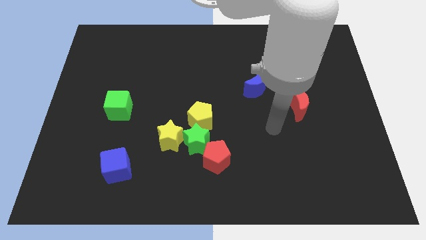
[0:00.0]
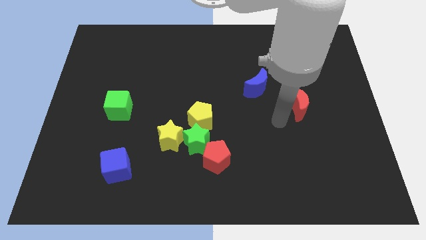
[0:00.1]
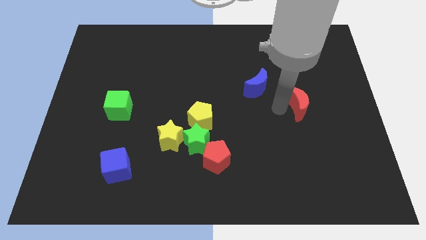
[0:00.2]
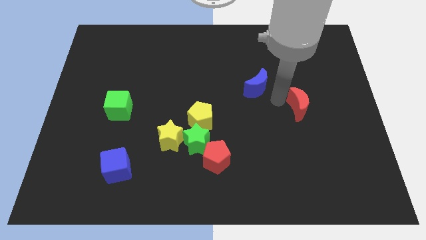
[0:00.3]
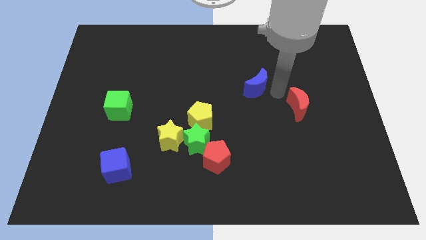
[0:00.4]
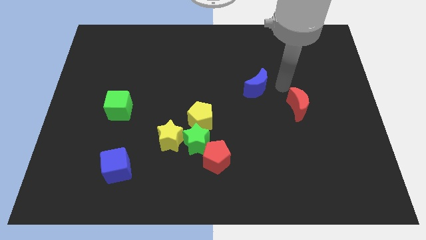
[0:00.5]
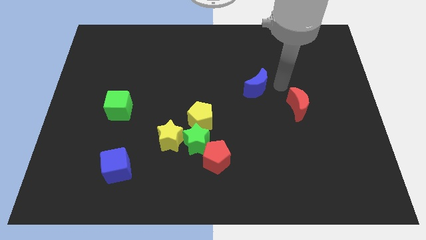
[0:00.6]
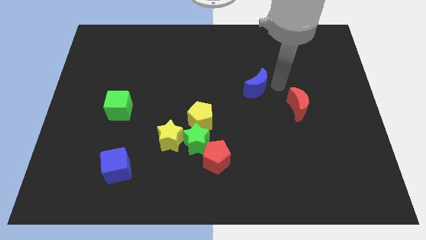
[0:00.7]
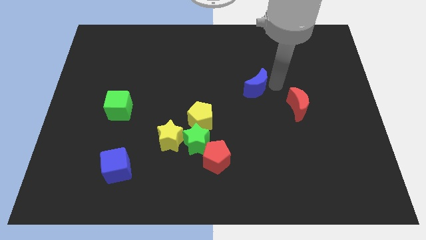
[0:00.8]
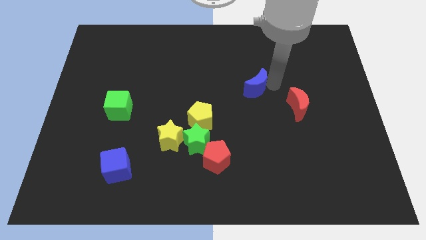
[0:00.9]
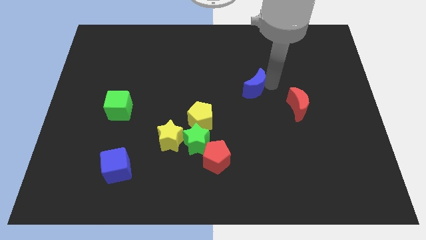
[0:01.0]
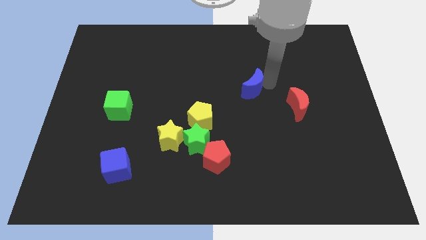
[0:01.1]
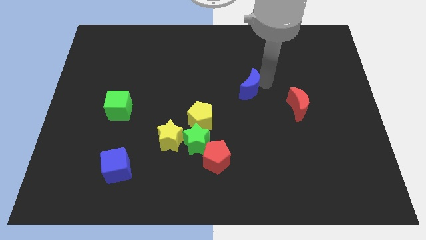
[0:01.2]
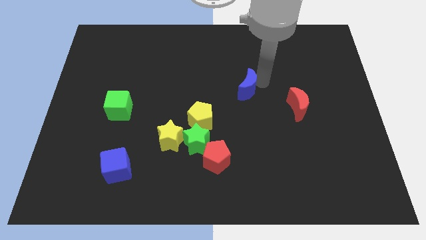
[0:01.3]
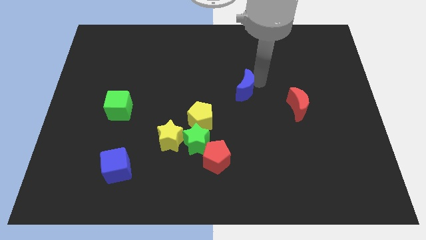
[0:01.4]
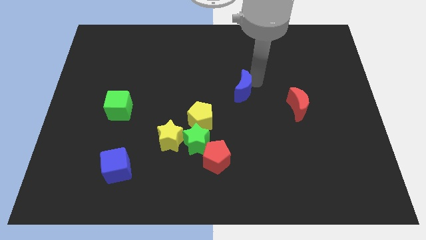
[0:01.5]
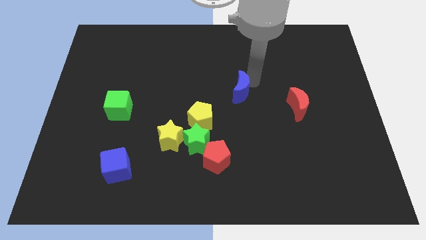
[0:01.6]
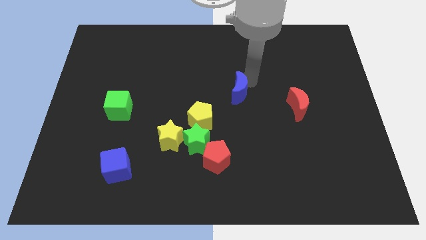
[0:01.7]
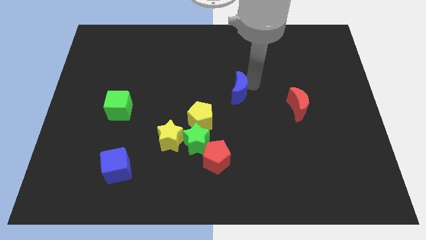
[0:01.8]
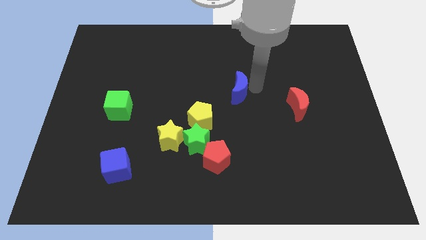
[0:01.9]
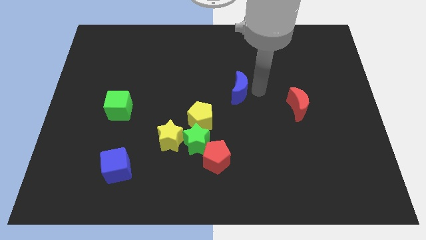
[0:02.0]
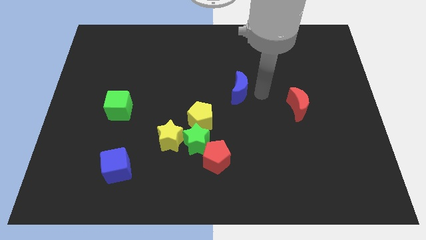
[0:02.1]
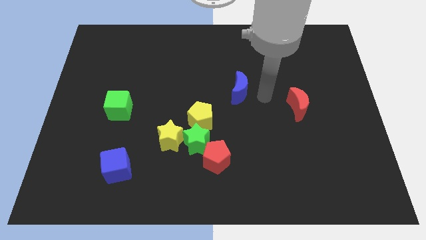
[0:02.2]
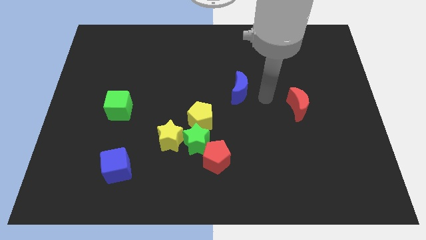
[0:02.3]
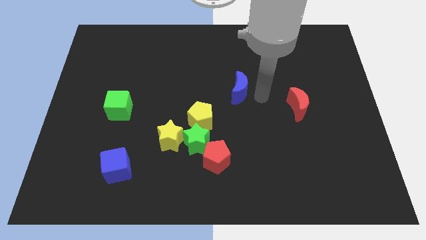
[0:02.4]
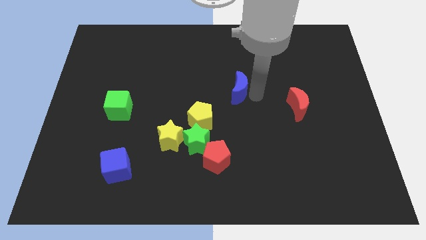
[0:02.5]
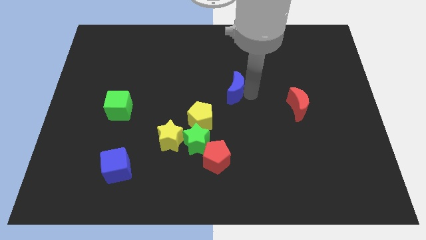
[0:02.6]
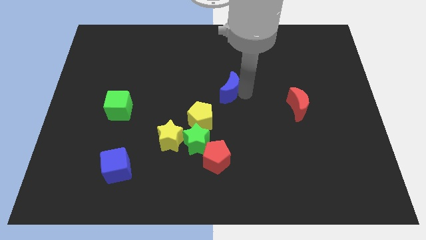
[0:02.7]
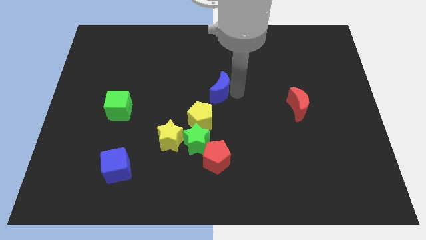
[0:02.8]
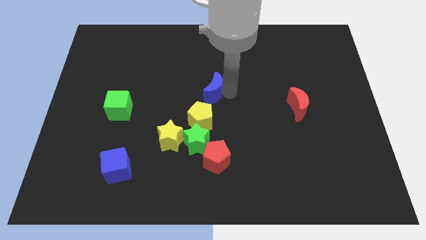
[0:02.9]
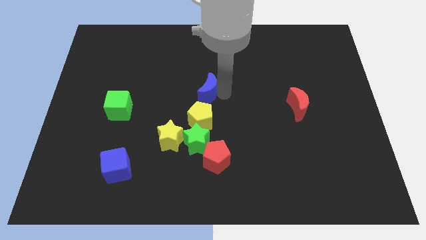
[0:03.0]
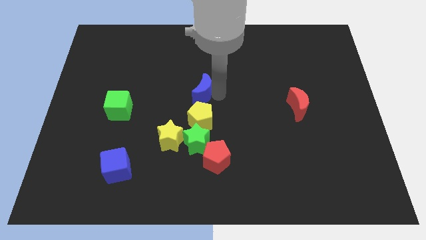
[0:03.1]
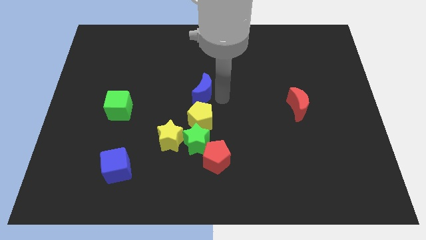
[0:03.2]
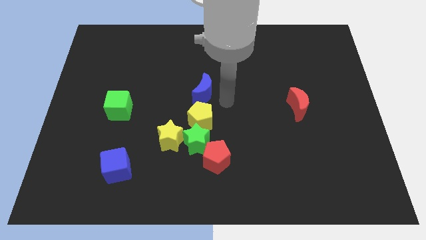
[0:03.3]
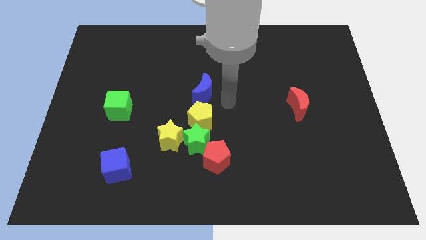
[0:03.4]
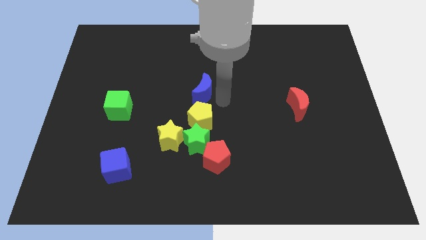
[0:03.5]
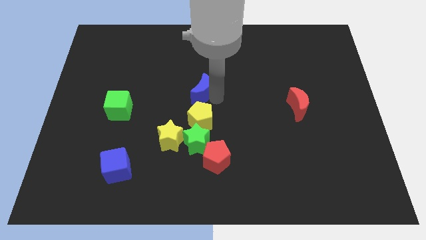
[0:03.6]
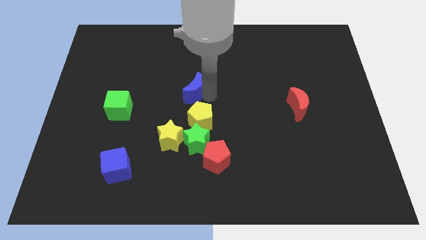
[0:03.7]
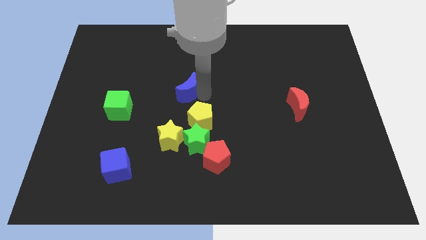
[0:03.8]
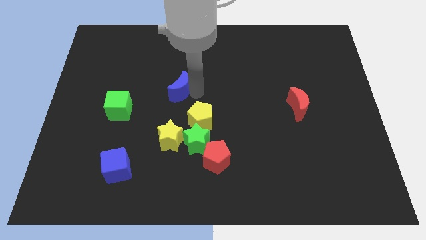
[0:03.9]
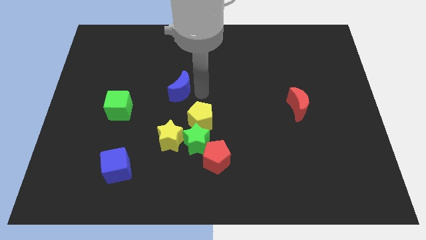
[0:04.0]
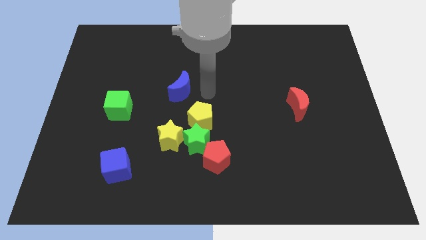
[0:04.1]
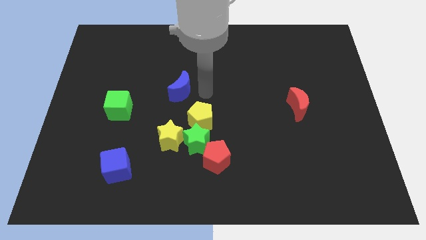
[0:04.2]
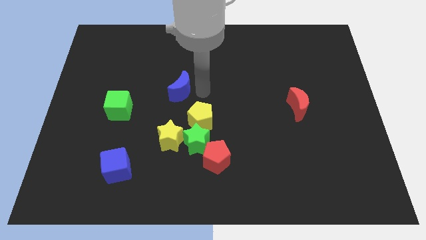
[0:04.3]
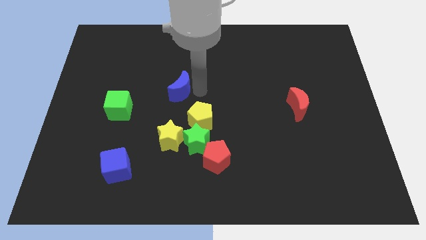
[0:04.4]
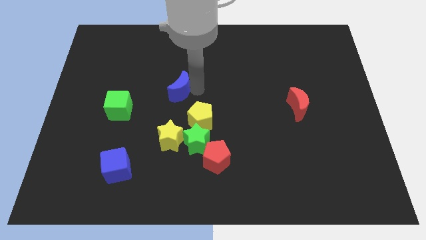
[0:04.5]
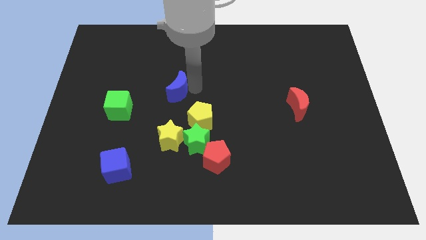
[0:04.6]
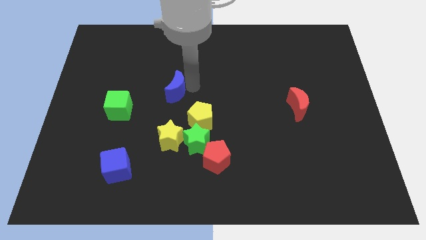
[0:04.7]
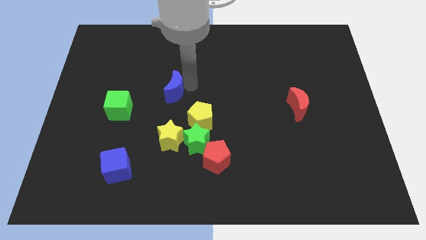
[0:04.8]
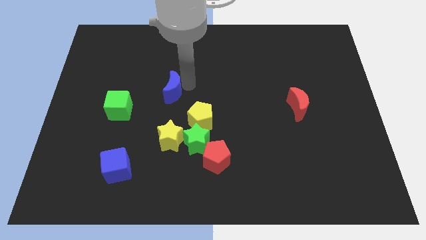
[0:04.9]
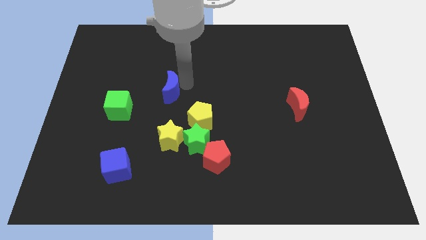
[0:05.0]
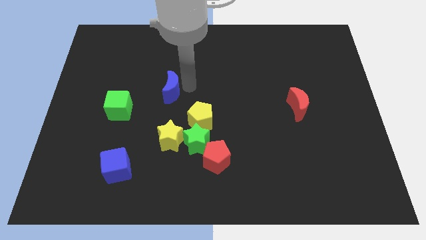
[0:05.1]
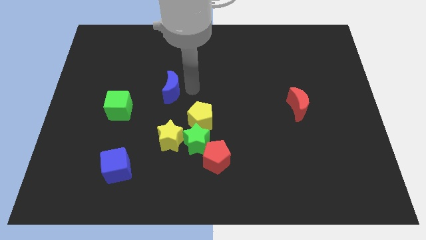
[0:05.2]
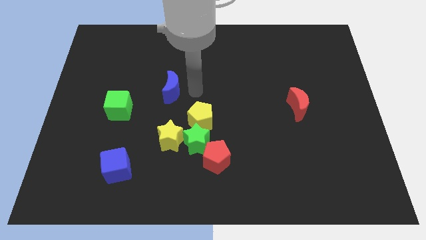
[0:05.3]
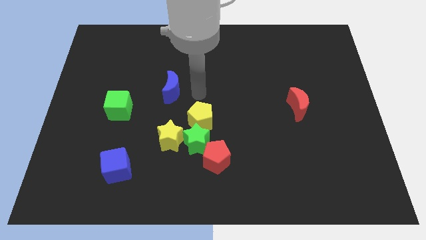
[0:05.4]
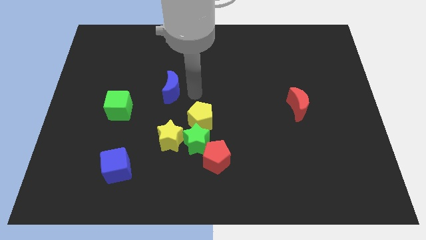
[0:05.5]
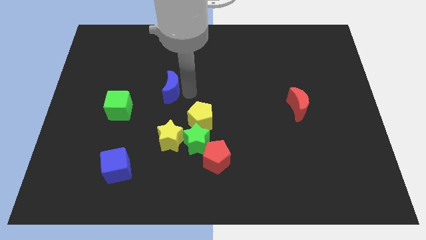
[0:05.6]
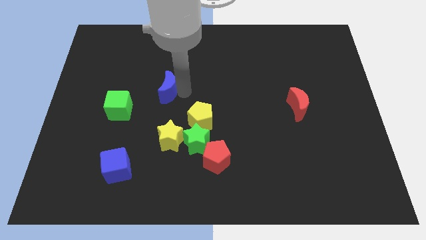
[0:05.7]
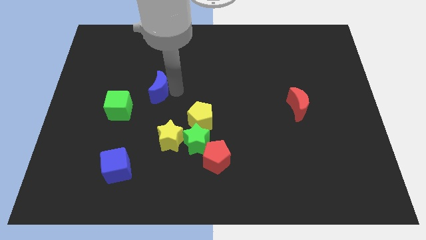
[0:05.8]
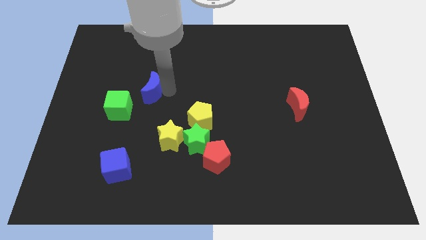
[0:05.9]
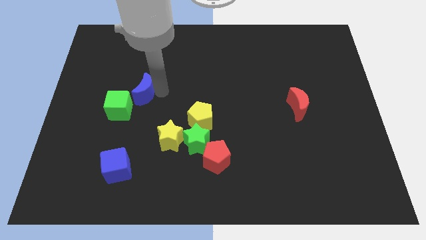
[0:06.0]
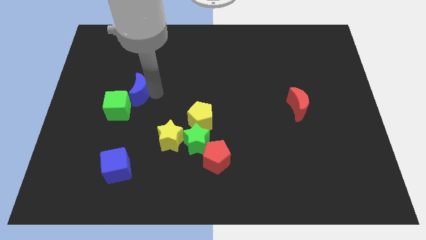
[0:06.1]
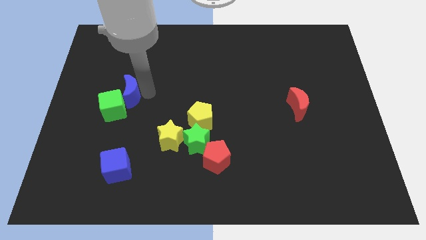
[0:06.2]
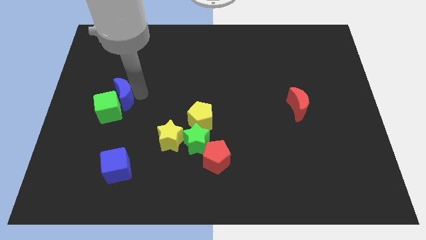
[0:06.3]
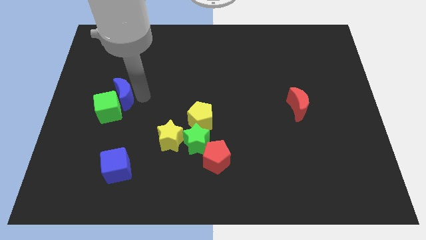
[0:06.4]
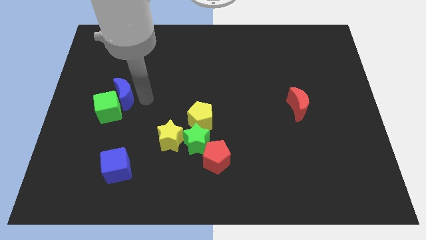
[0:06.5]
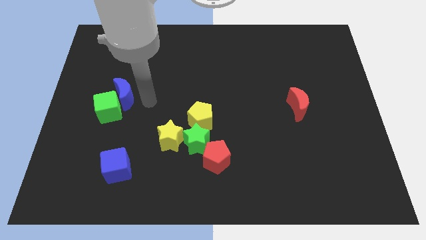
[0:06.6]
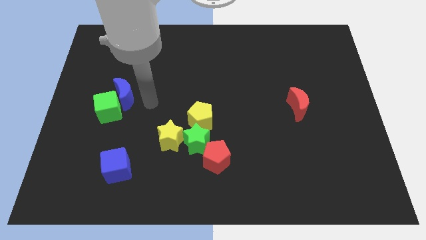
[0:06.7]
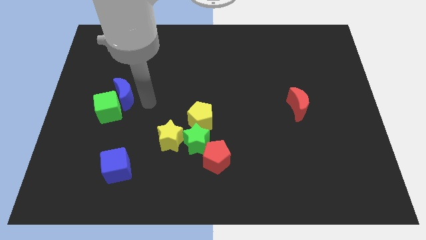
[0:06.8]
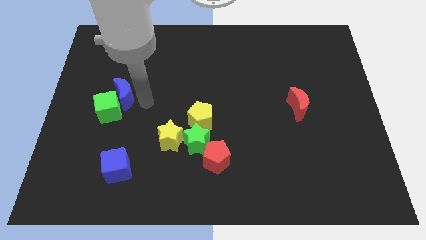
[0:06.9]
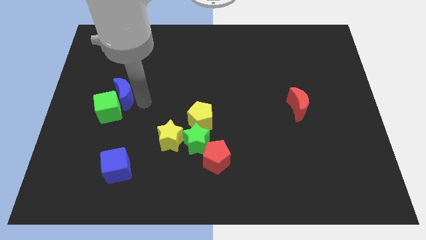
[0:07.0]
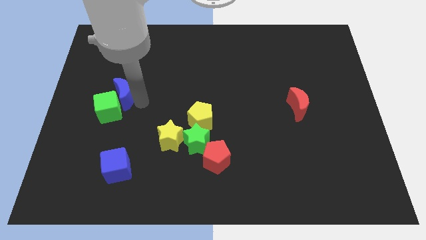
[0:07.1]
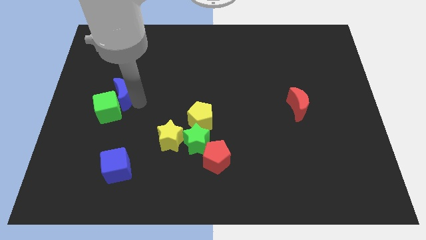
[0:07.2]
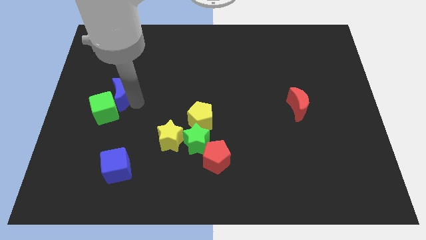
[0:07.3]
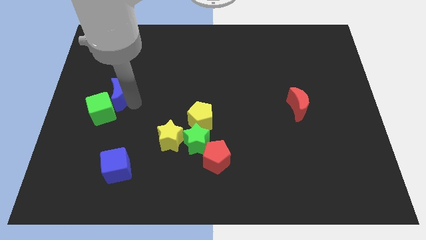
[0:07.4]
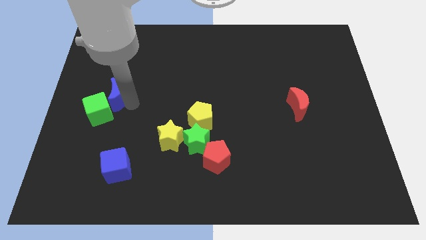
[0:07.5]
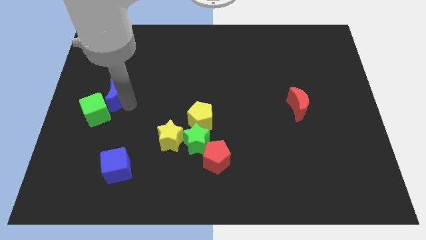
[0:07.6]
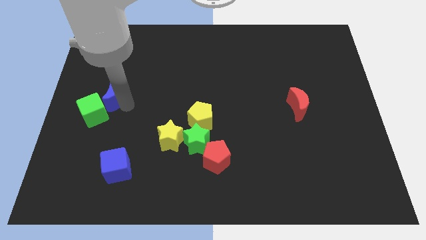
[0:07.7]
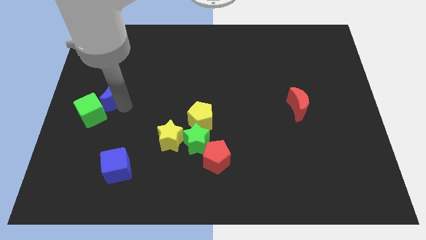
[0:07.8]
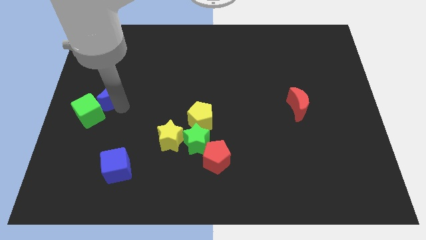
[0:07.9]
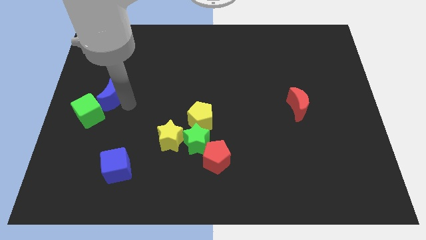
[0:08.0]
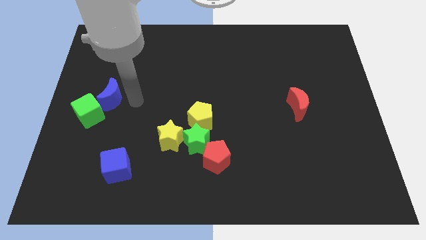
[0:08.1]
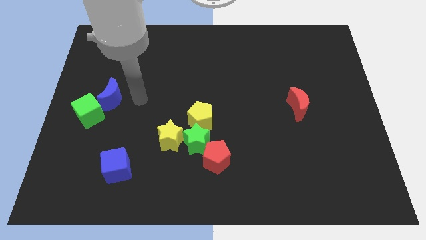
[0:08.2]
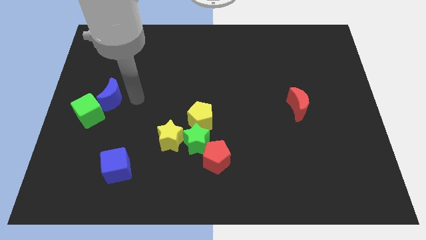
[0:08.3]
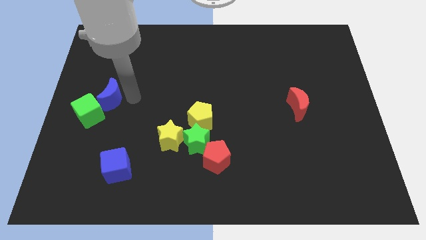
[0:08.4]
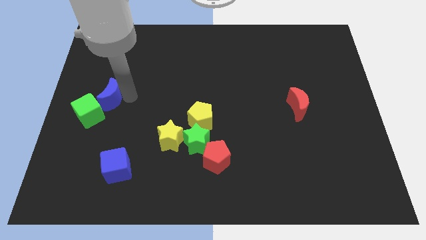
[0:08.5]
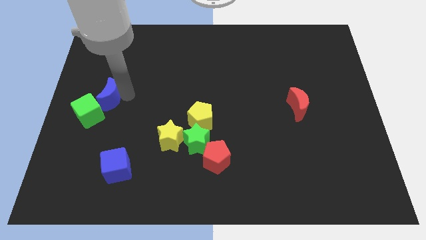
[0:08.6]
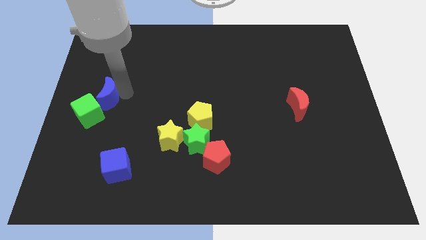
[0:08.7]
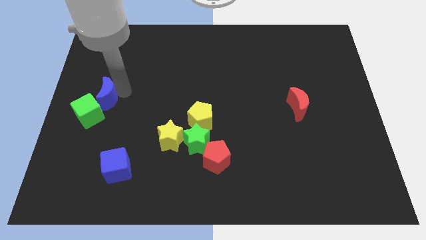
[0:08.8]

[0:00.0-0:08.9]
move the blue moon to the center left
